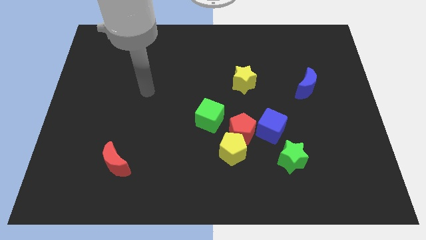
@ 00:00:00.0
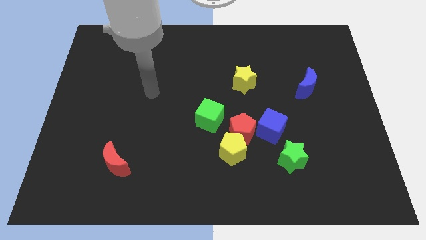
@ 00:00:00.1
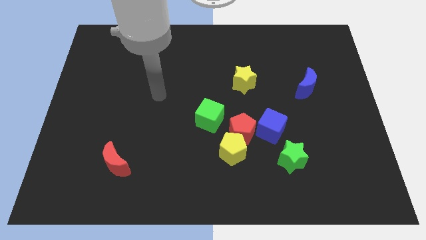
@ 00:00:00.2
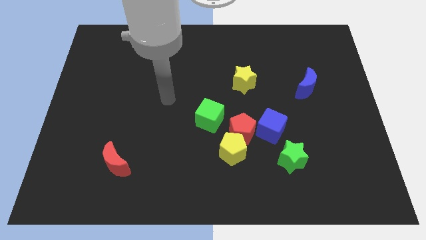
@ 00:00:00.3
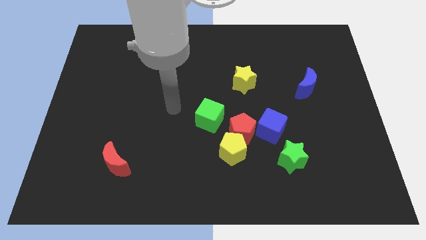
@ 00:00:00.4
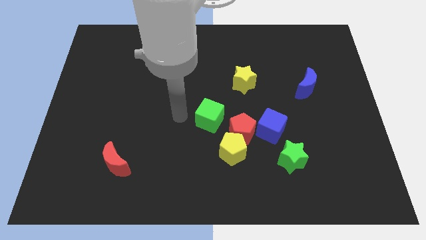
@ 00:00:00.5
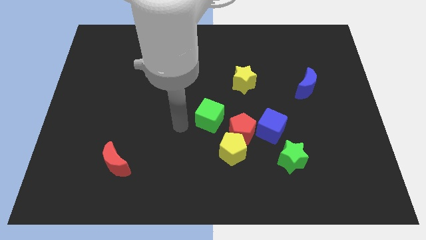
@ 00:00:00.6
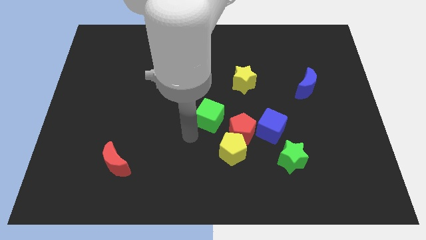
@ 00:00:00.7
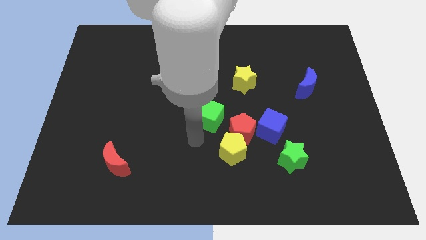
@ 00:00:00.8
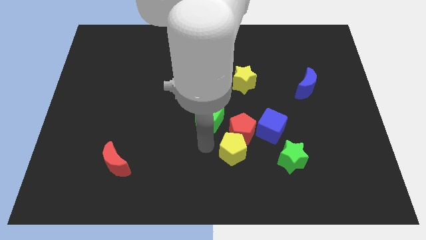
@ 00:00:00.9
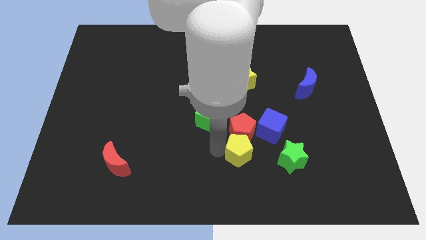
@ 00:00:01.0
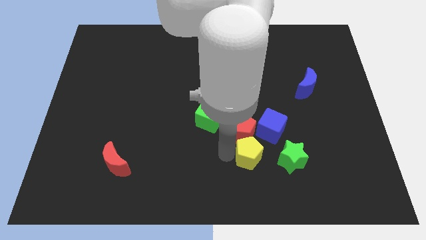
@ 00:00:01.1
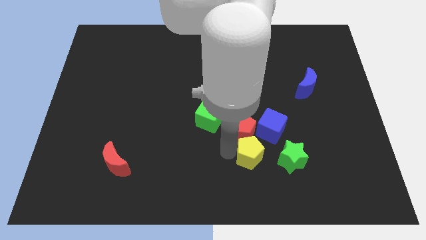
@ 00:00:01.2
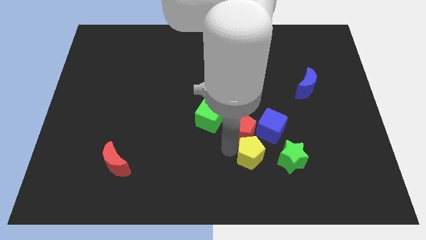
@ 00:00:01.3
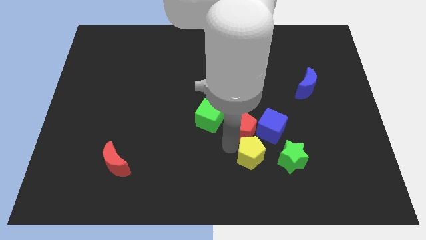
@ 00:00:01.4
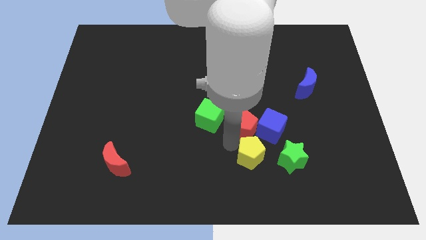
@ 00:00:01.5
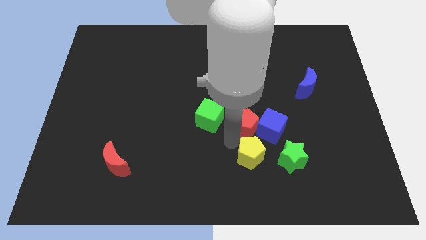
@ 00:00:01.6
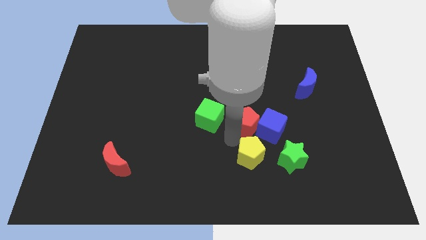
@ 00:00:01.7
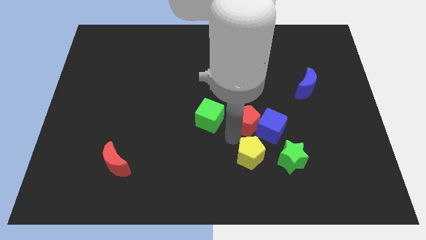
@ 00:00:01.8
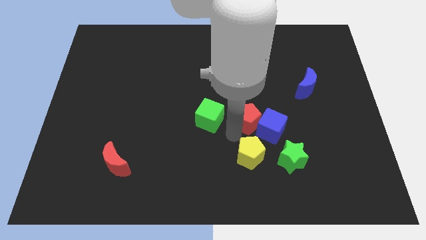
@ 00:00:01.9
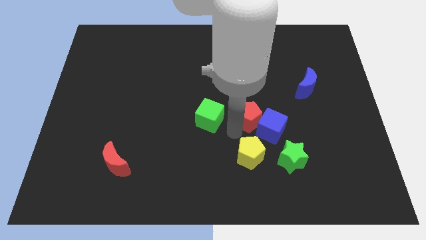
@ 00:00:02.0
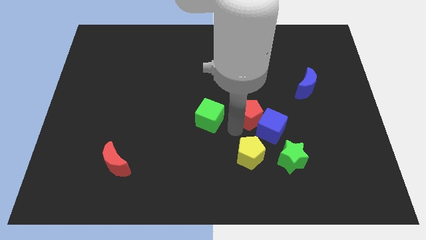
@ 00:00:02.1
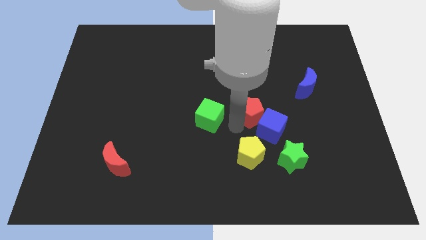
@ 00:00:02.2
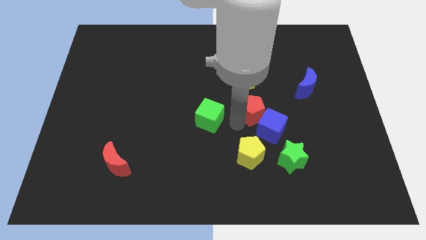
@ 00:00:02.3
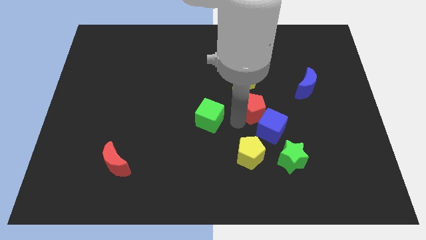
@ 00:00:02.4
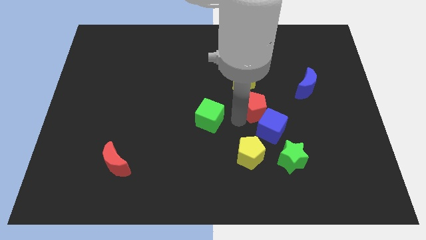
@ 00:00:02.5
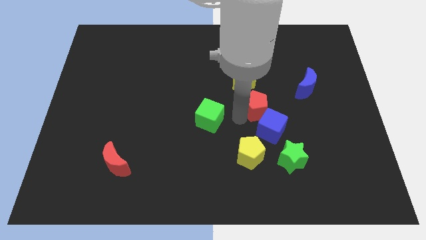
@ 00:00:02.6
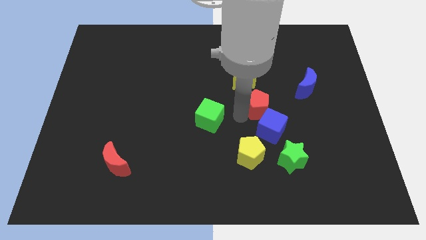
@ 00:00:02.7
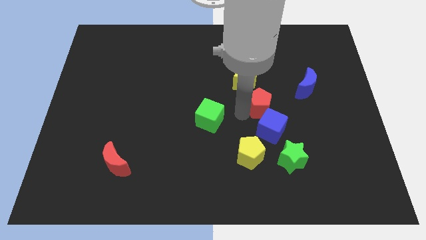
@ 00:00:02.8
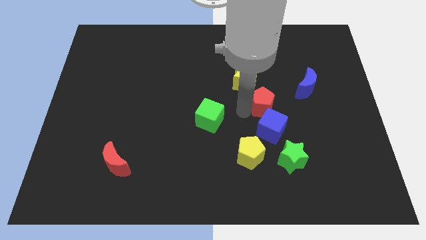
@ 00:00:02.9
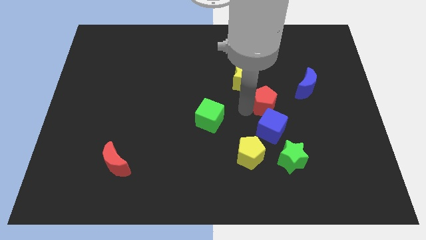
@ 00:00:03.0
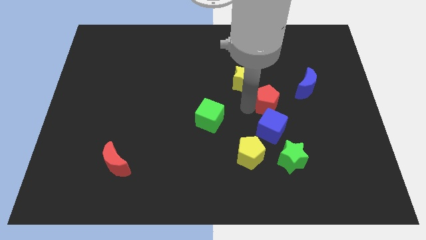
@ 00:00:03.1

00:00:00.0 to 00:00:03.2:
pull the red pentagon apart from the clump

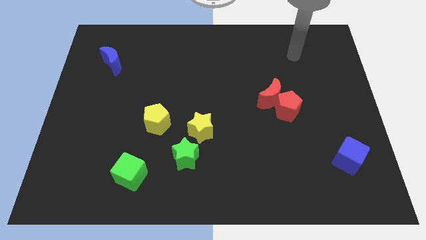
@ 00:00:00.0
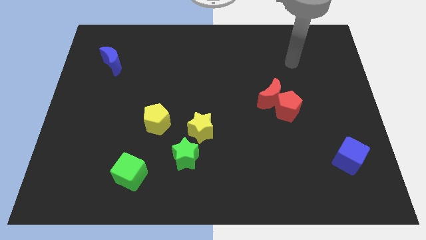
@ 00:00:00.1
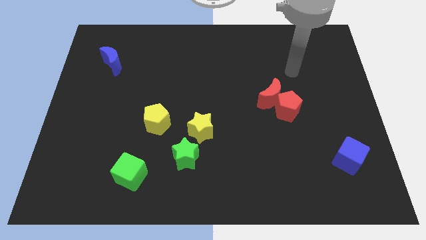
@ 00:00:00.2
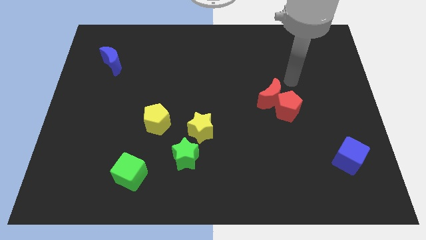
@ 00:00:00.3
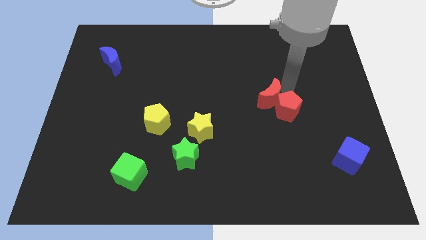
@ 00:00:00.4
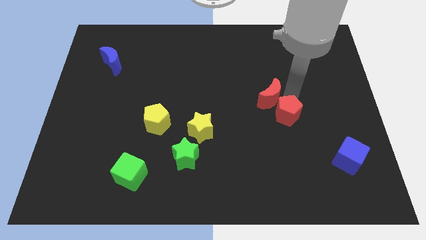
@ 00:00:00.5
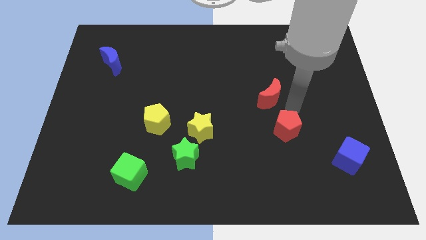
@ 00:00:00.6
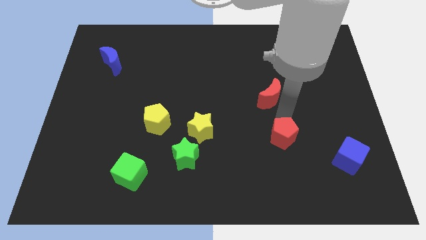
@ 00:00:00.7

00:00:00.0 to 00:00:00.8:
pull the red moon apart from the red pentagon

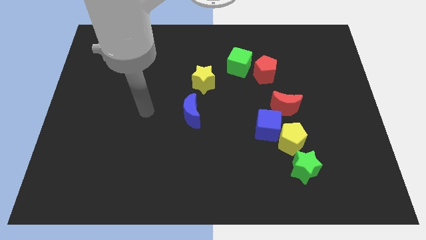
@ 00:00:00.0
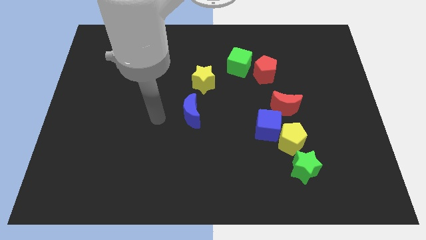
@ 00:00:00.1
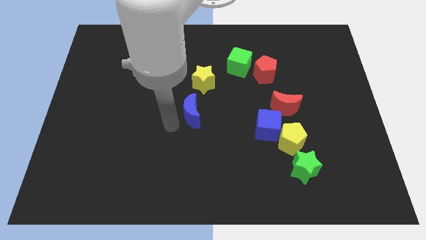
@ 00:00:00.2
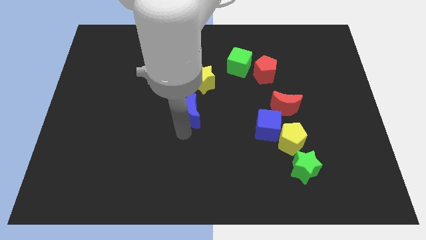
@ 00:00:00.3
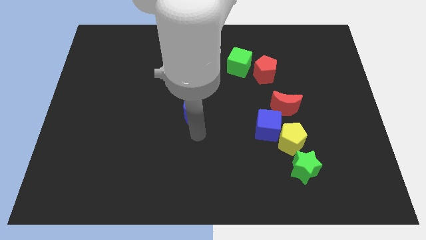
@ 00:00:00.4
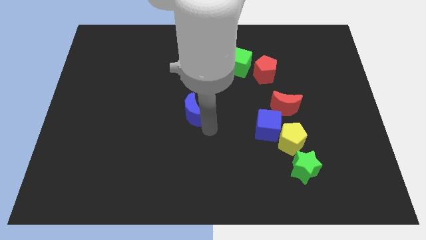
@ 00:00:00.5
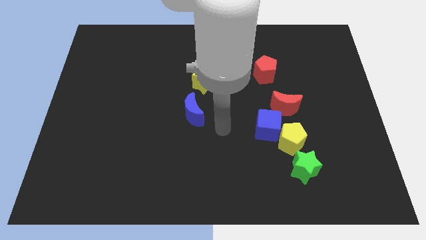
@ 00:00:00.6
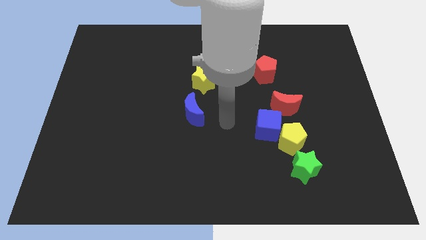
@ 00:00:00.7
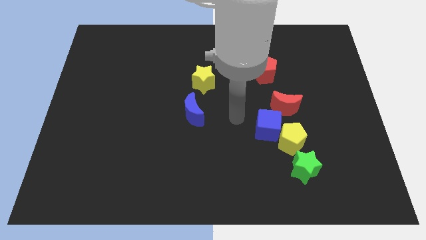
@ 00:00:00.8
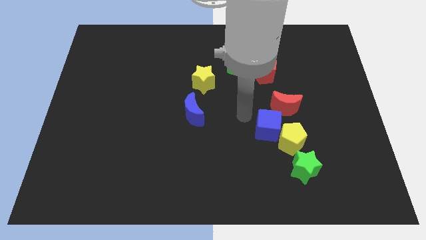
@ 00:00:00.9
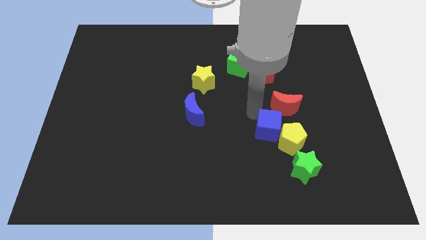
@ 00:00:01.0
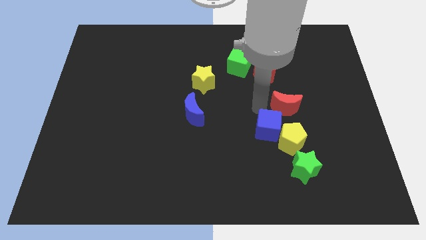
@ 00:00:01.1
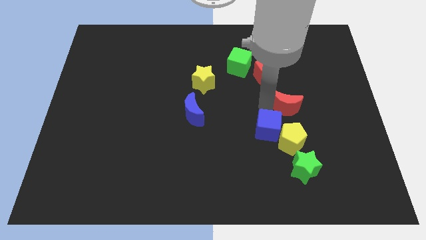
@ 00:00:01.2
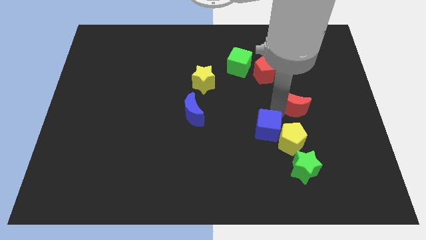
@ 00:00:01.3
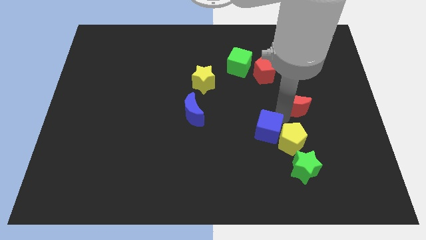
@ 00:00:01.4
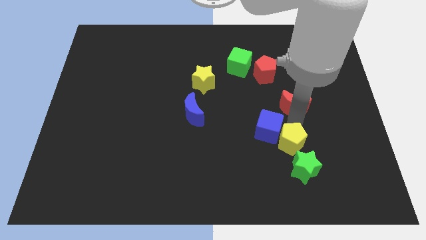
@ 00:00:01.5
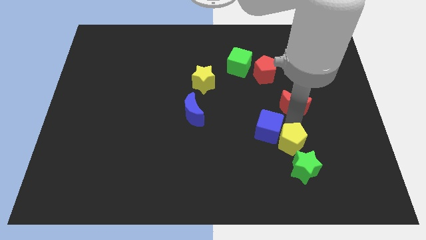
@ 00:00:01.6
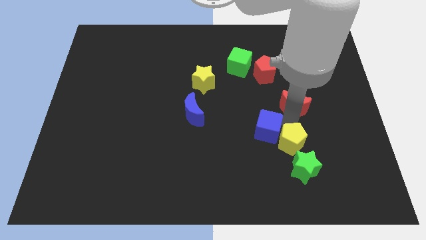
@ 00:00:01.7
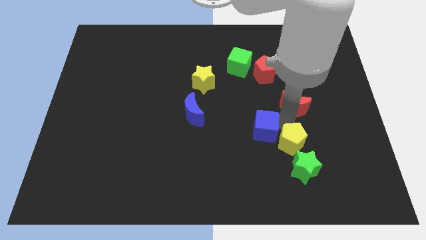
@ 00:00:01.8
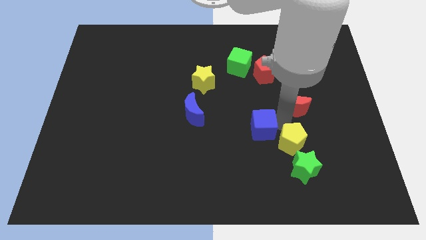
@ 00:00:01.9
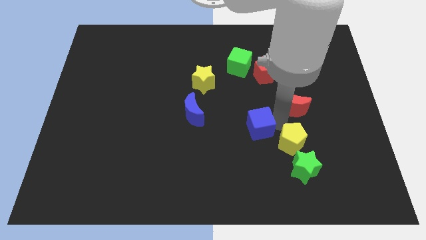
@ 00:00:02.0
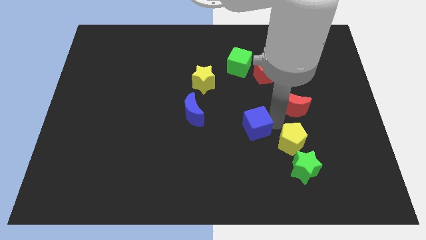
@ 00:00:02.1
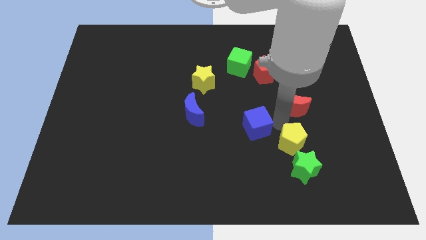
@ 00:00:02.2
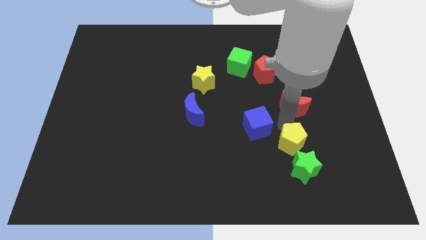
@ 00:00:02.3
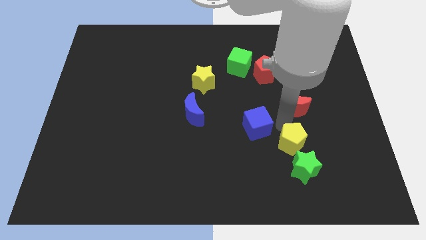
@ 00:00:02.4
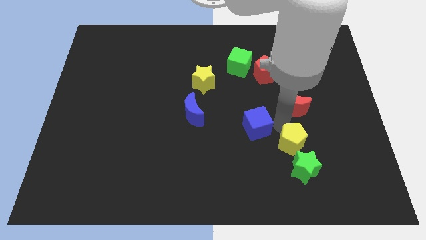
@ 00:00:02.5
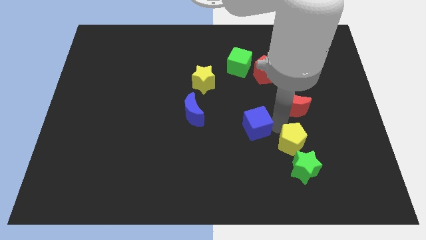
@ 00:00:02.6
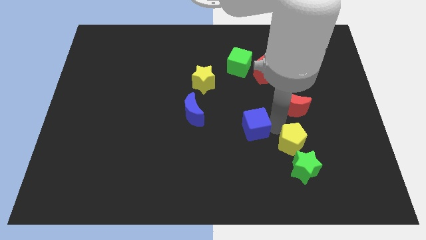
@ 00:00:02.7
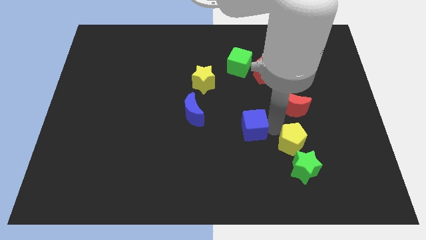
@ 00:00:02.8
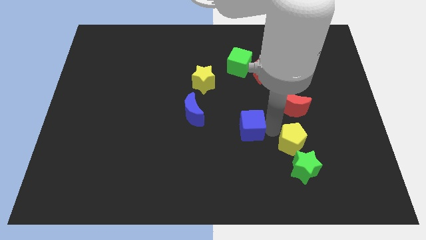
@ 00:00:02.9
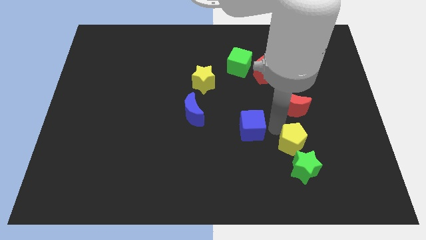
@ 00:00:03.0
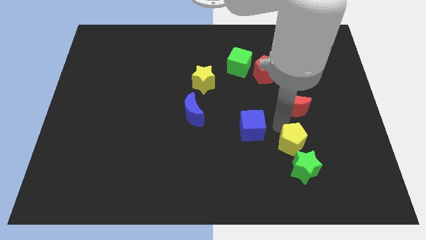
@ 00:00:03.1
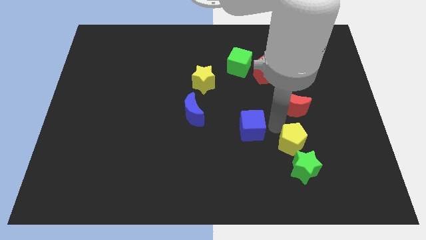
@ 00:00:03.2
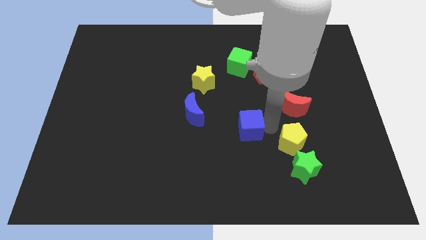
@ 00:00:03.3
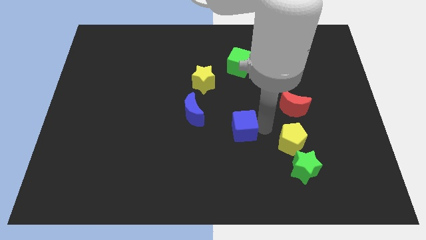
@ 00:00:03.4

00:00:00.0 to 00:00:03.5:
separate the blue cube from the yellow pentagon and red moon

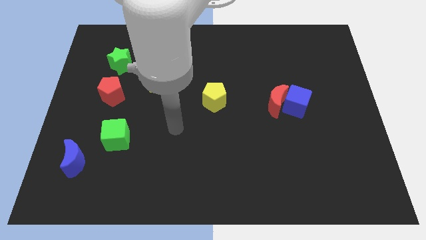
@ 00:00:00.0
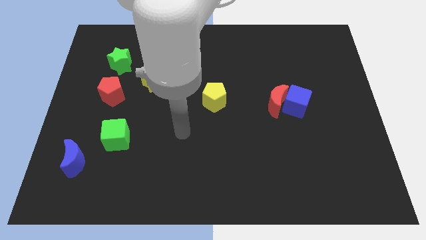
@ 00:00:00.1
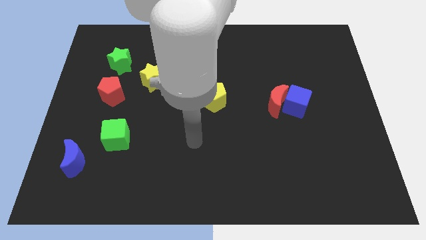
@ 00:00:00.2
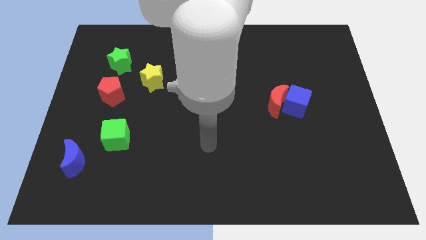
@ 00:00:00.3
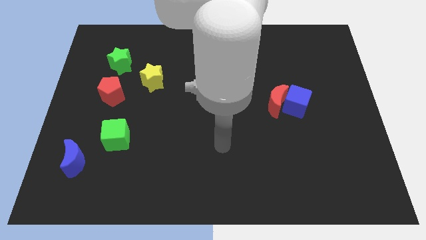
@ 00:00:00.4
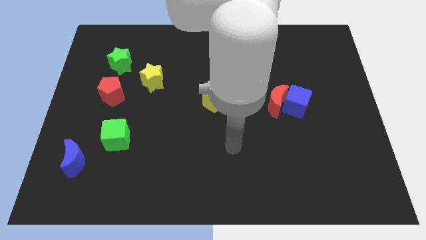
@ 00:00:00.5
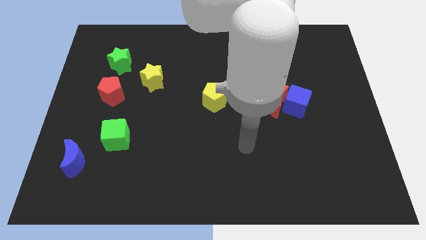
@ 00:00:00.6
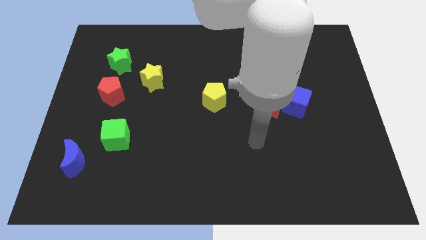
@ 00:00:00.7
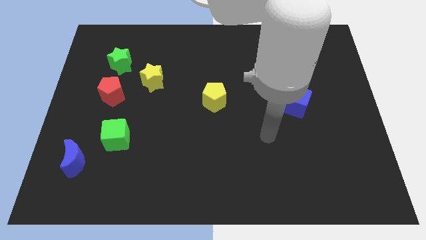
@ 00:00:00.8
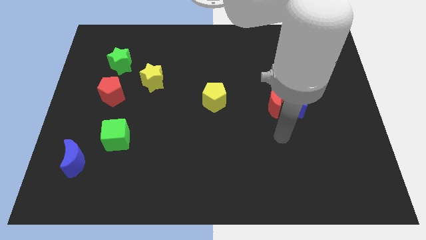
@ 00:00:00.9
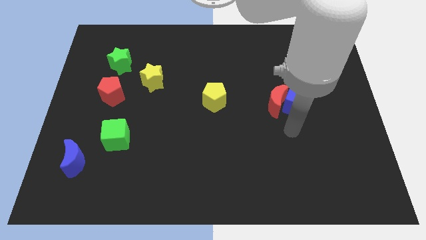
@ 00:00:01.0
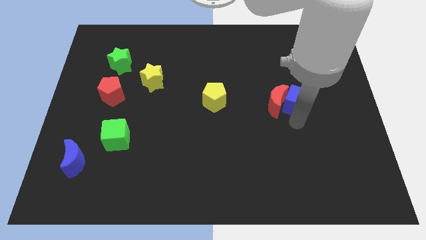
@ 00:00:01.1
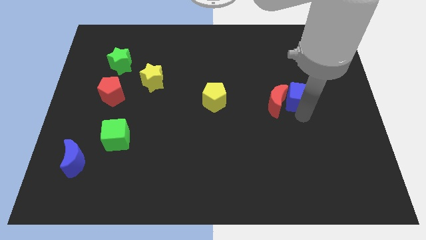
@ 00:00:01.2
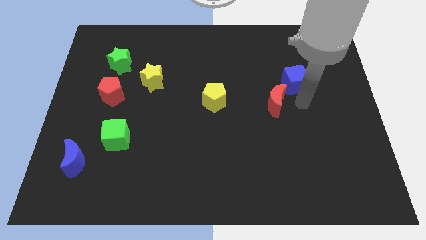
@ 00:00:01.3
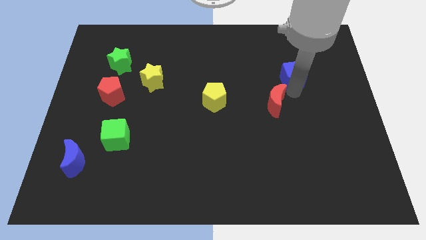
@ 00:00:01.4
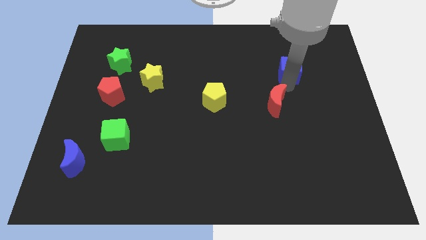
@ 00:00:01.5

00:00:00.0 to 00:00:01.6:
move the red moon away from the blue cube

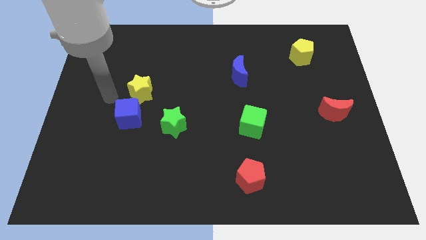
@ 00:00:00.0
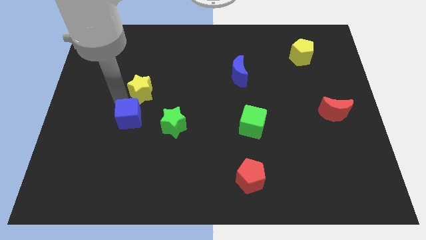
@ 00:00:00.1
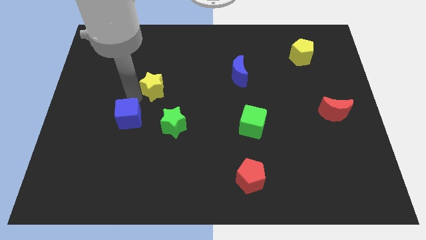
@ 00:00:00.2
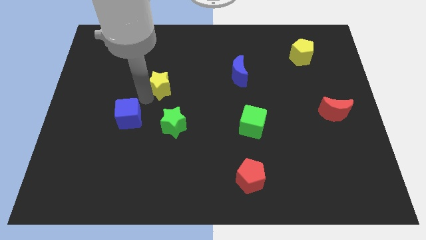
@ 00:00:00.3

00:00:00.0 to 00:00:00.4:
move the blue cube away from the yellow star
